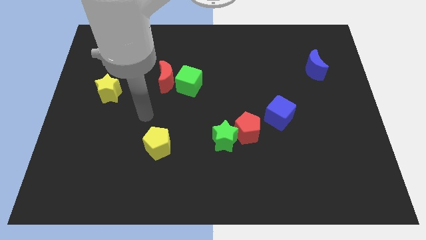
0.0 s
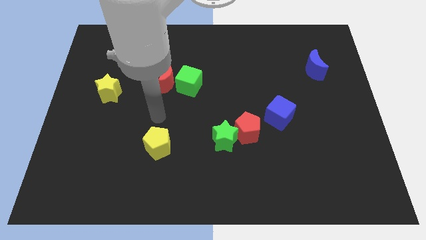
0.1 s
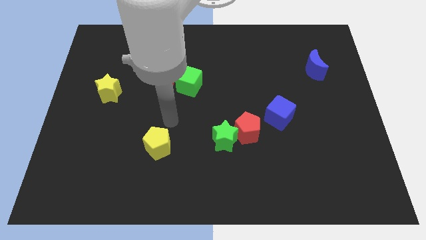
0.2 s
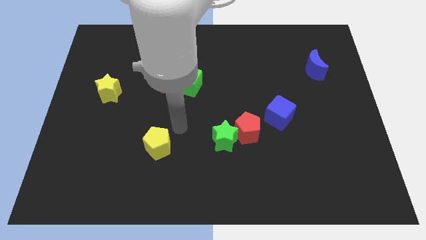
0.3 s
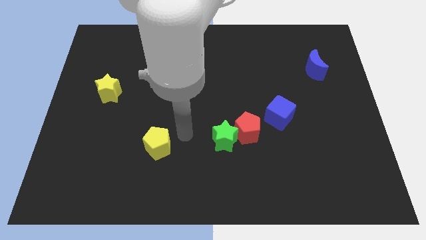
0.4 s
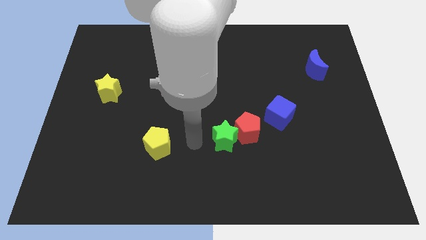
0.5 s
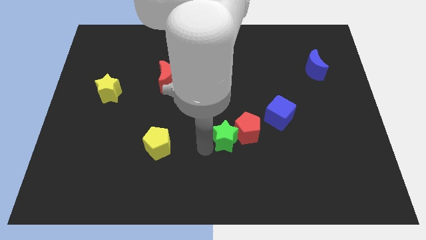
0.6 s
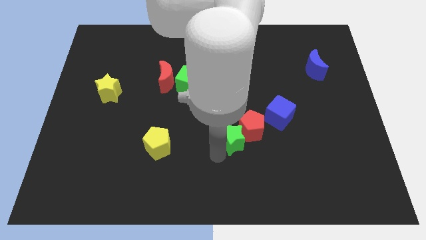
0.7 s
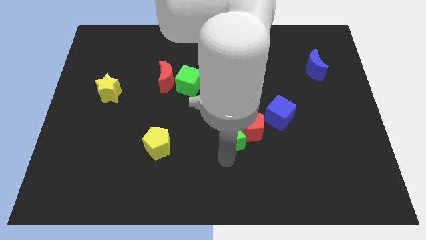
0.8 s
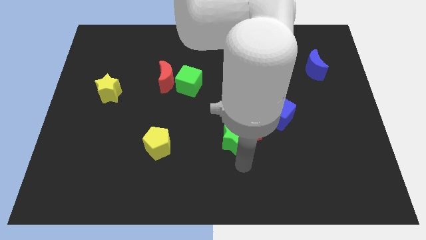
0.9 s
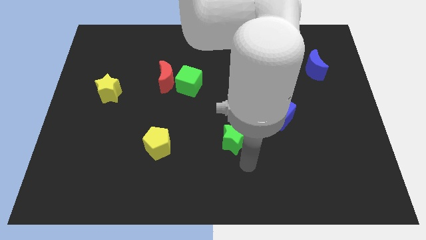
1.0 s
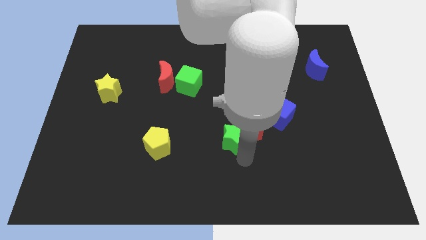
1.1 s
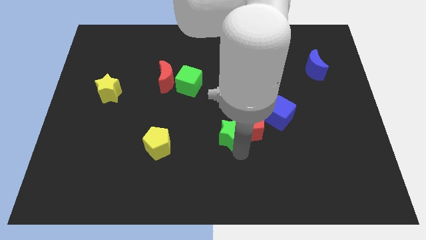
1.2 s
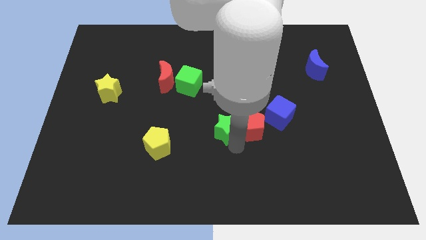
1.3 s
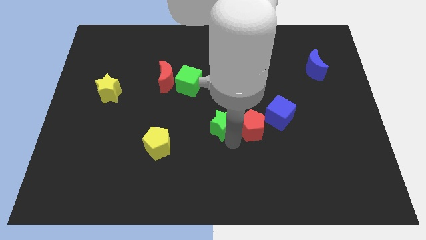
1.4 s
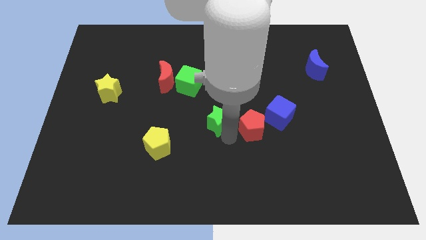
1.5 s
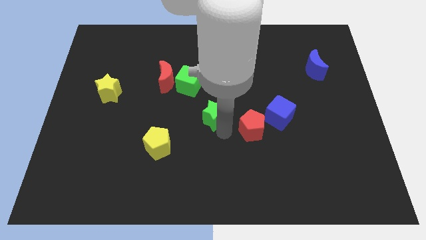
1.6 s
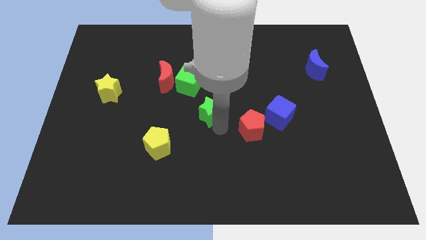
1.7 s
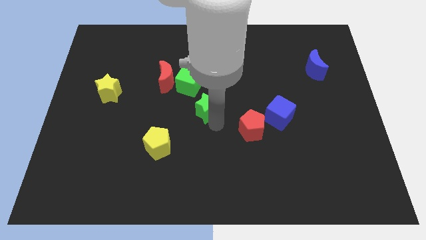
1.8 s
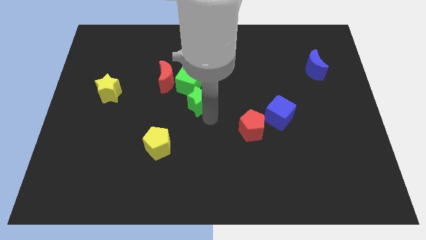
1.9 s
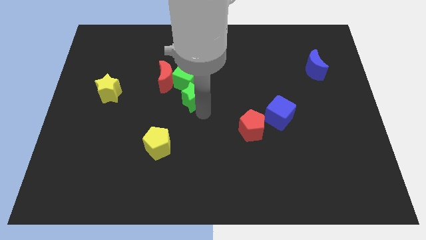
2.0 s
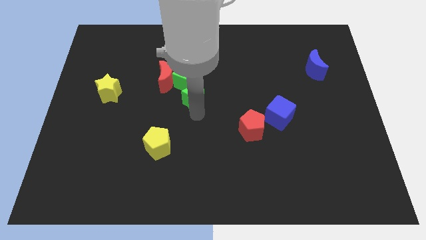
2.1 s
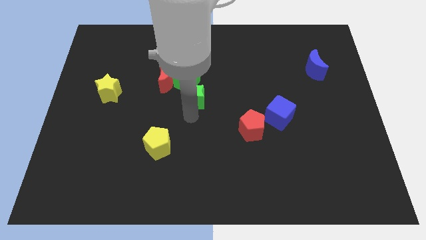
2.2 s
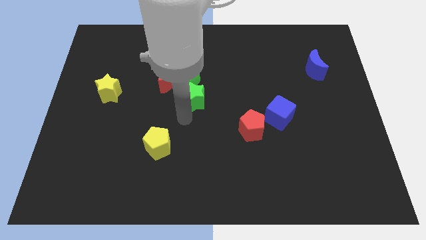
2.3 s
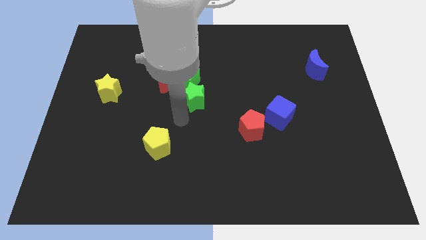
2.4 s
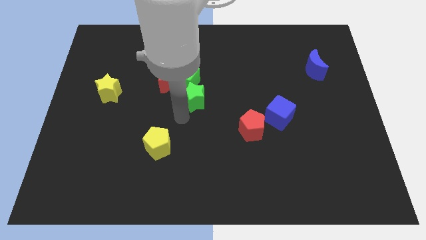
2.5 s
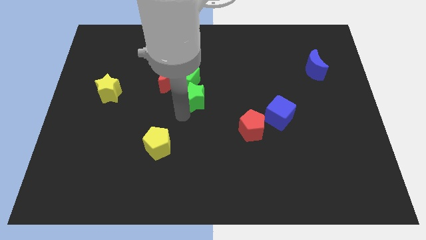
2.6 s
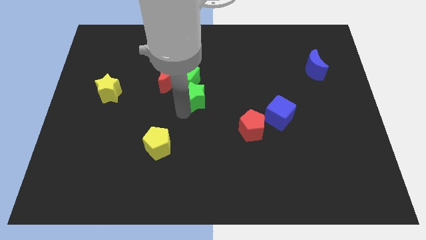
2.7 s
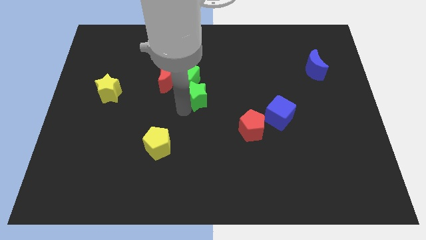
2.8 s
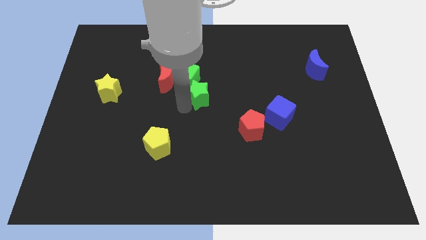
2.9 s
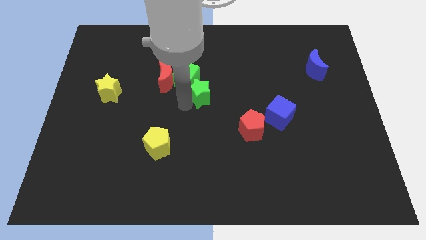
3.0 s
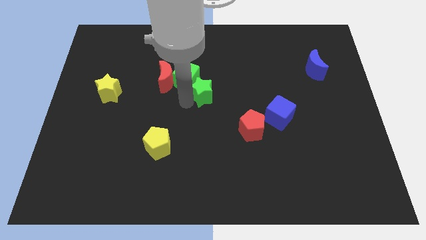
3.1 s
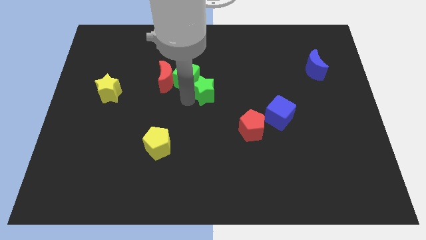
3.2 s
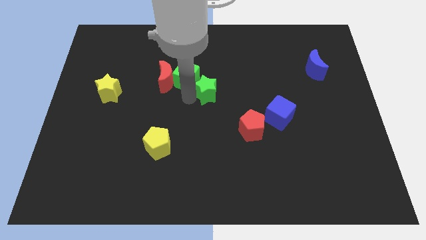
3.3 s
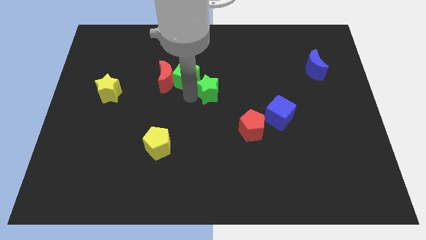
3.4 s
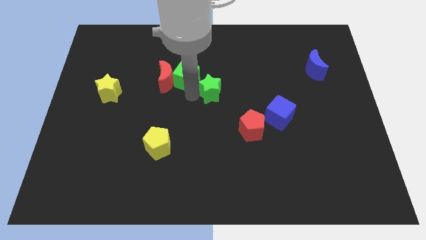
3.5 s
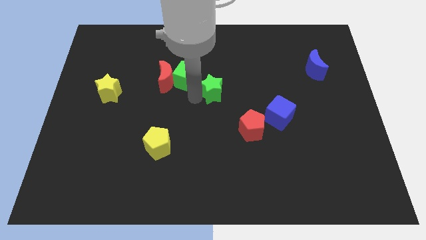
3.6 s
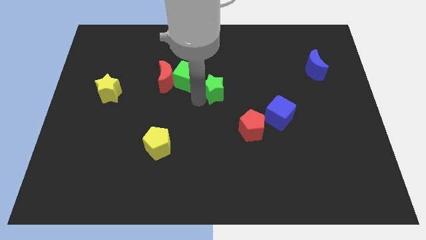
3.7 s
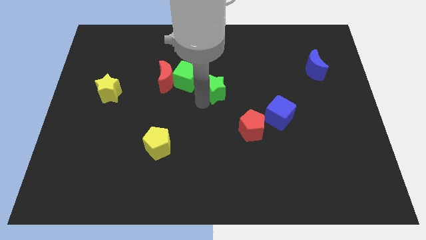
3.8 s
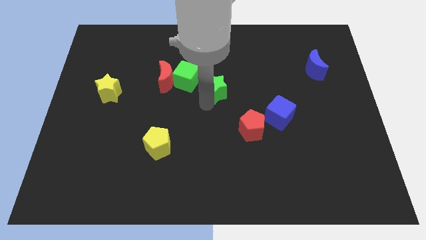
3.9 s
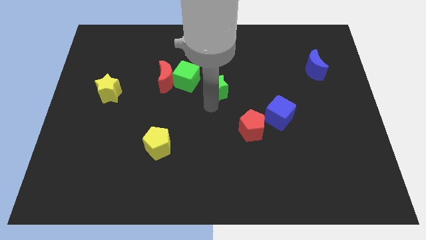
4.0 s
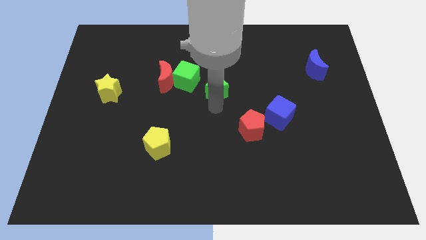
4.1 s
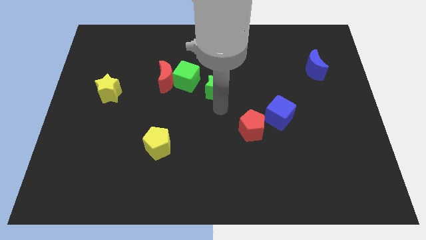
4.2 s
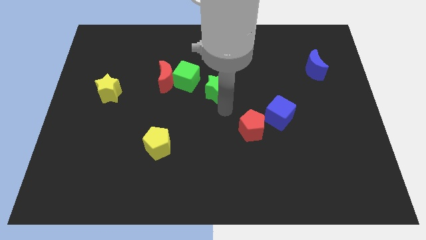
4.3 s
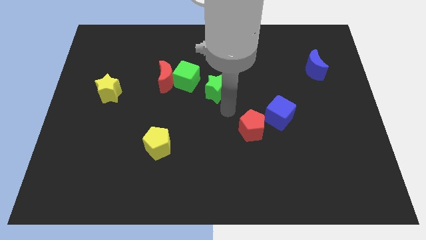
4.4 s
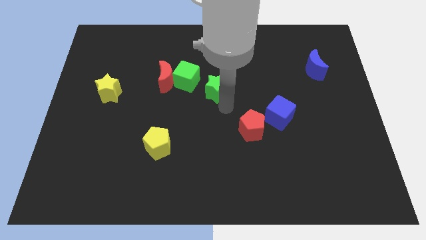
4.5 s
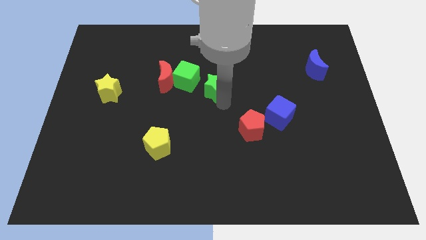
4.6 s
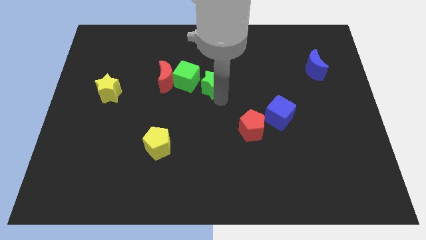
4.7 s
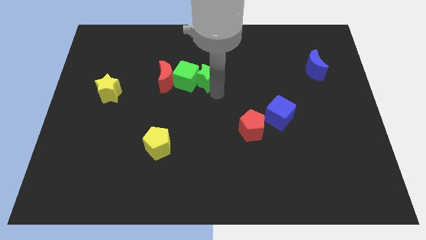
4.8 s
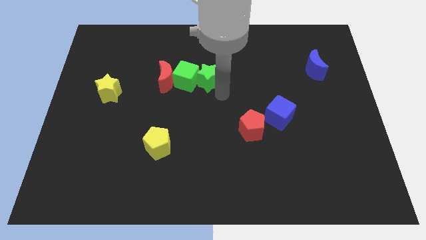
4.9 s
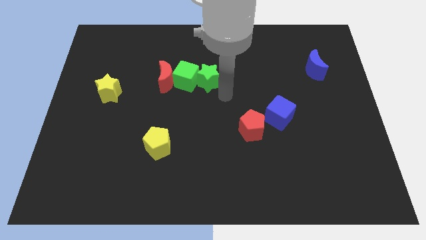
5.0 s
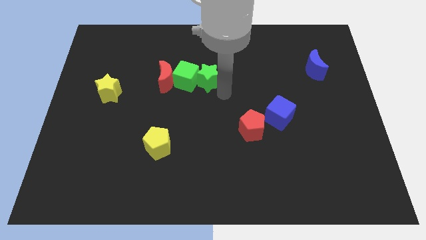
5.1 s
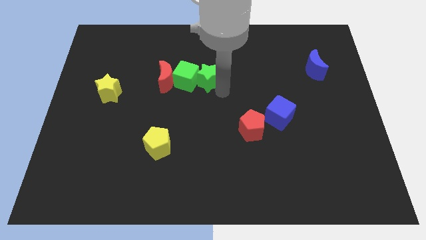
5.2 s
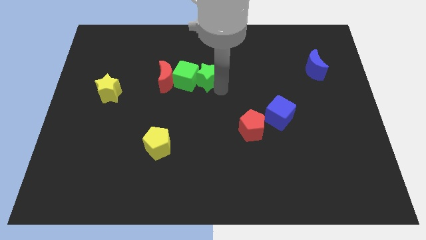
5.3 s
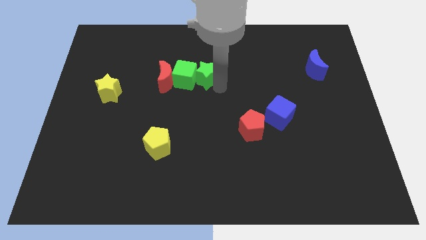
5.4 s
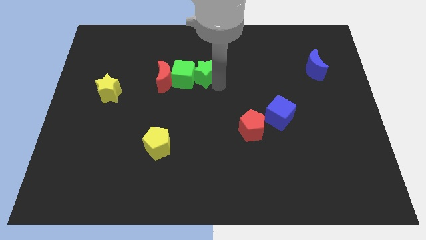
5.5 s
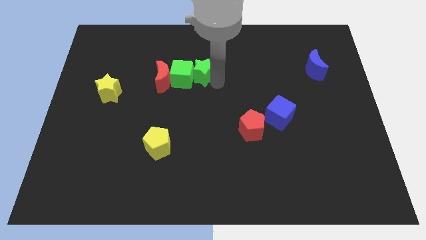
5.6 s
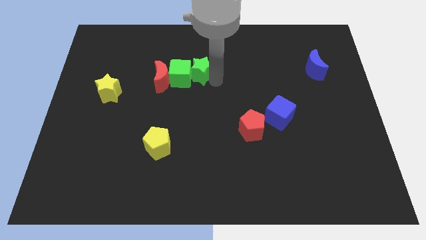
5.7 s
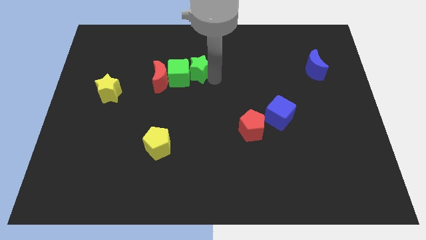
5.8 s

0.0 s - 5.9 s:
slide the green star to the top right of the red moon

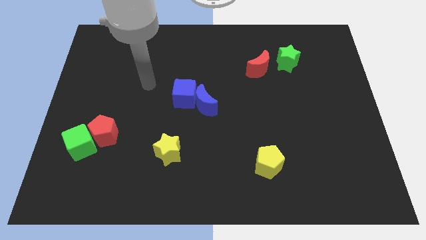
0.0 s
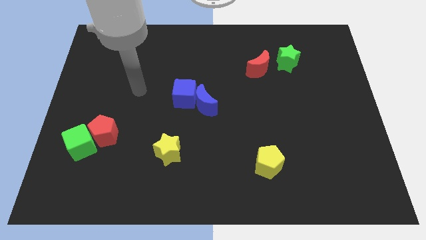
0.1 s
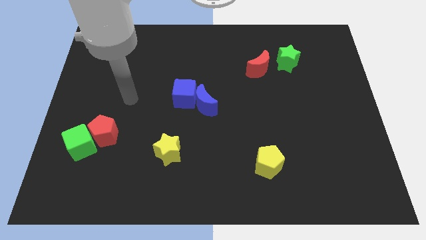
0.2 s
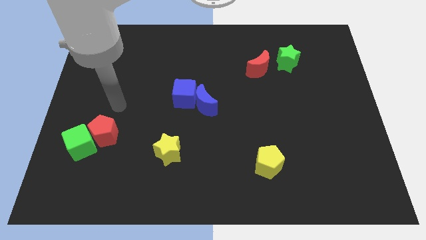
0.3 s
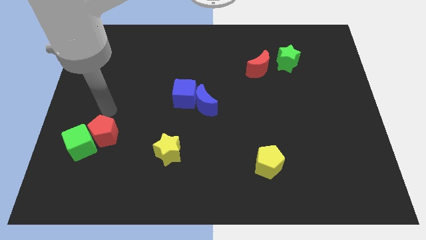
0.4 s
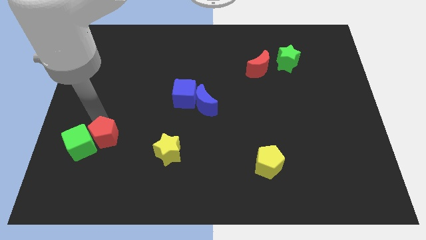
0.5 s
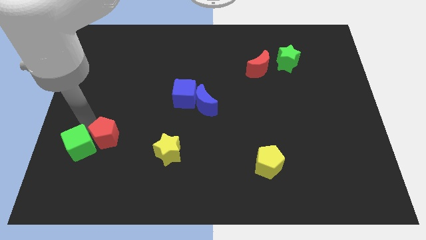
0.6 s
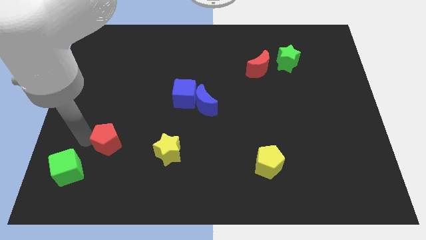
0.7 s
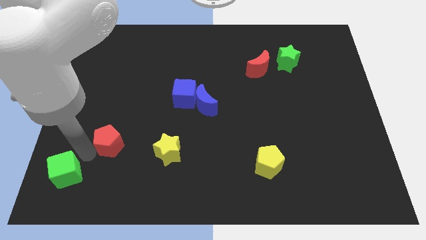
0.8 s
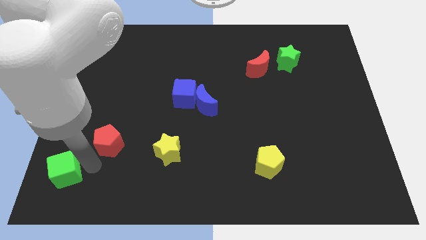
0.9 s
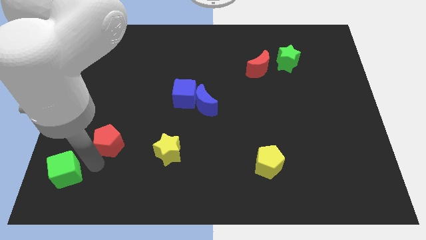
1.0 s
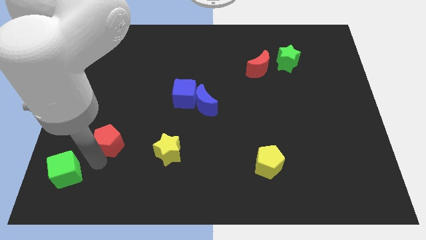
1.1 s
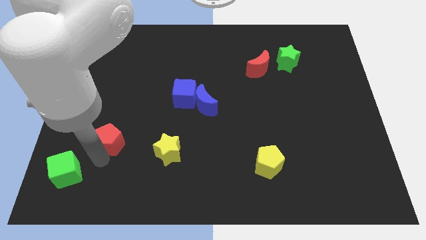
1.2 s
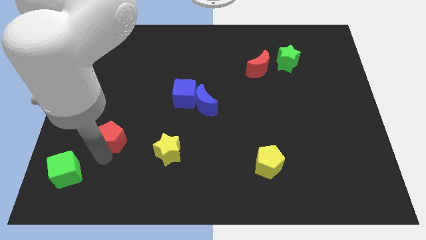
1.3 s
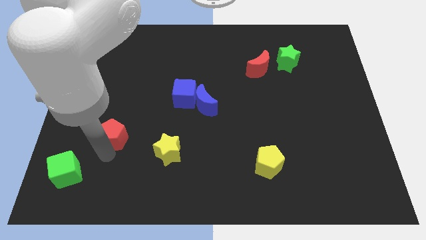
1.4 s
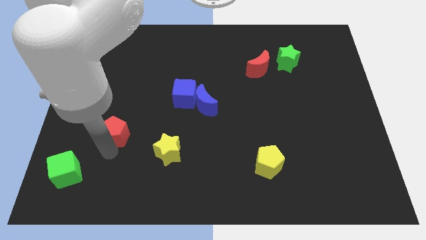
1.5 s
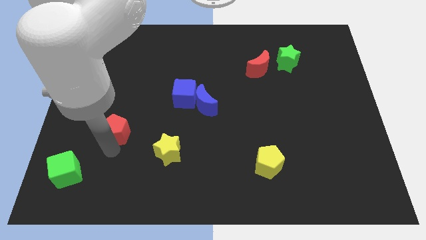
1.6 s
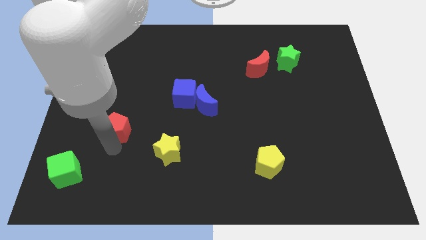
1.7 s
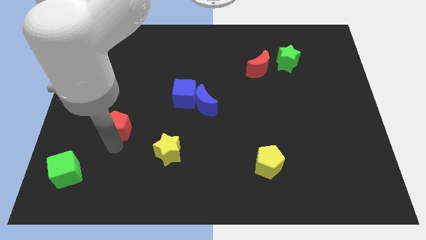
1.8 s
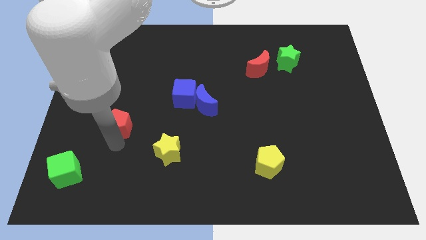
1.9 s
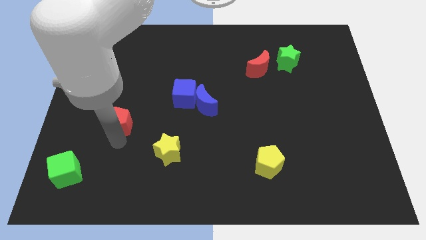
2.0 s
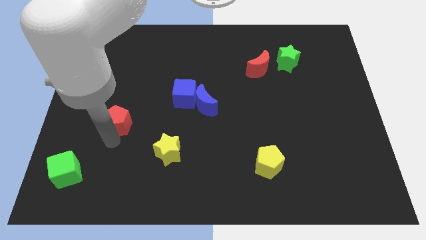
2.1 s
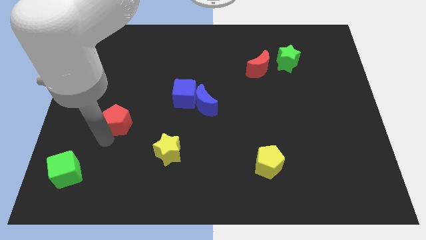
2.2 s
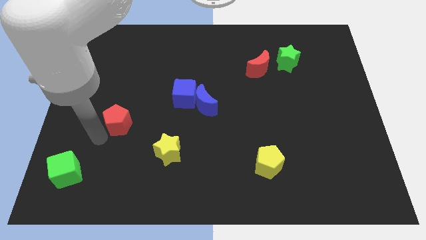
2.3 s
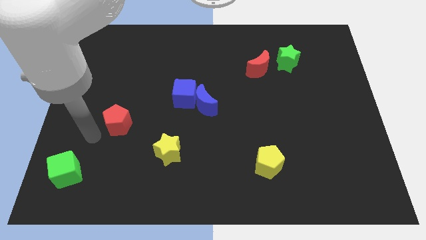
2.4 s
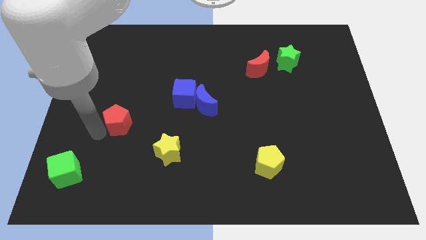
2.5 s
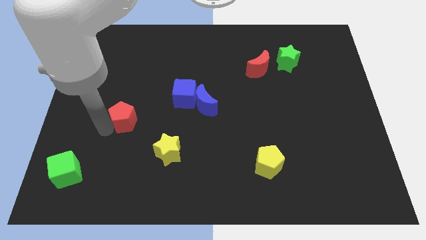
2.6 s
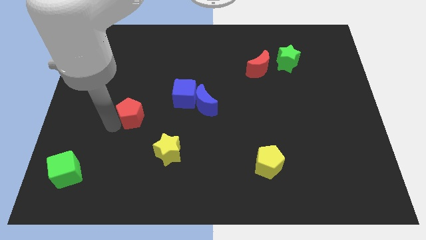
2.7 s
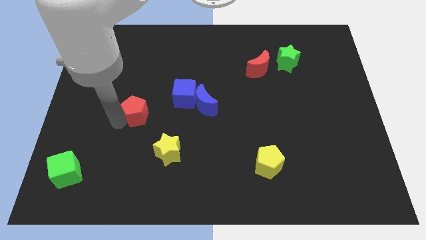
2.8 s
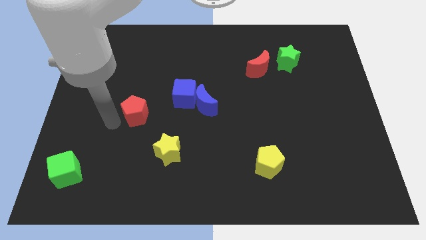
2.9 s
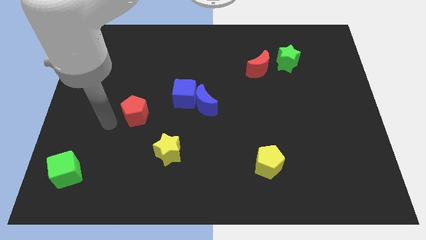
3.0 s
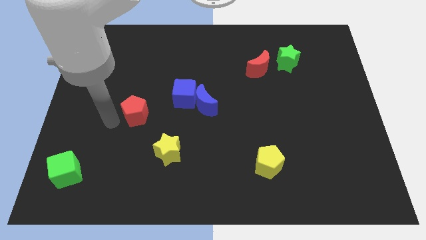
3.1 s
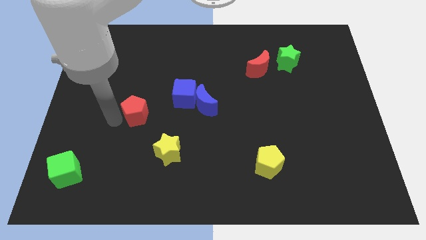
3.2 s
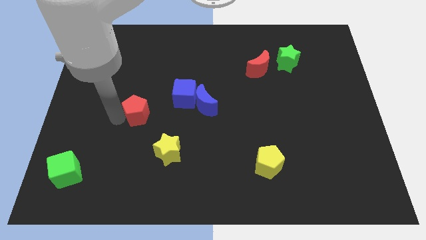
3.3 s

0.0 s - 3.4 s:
slide the red pentagon left of the blue moon
